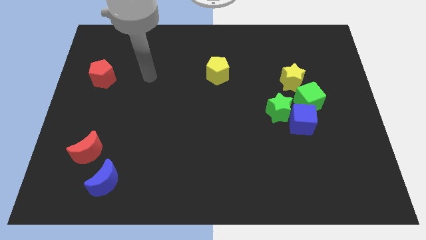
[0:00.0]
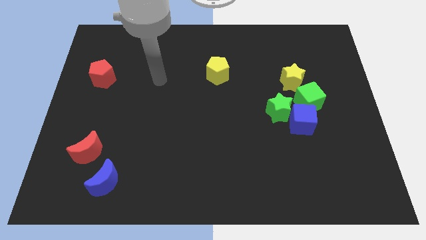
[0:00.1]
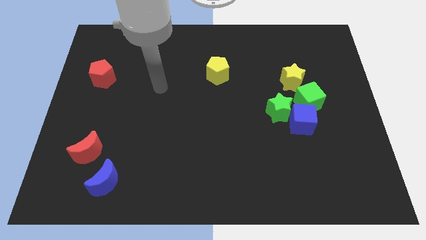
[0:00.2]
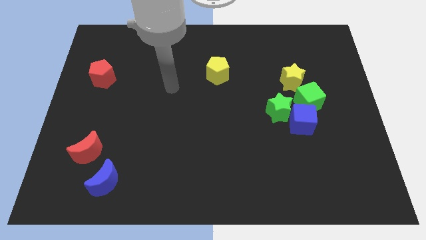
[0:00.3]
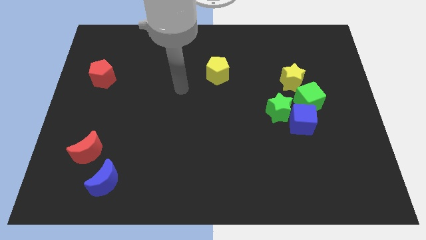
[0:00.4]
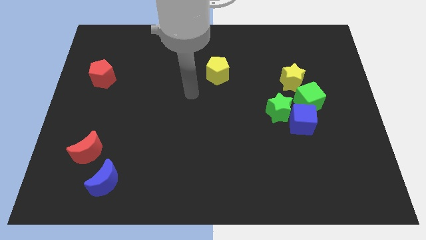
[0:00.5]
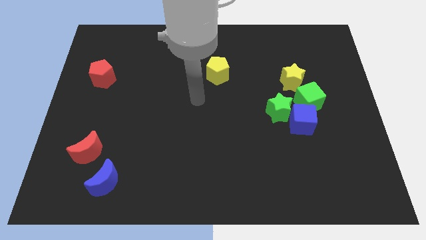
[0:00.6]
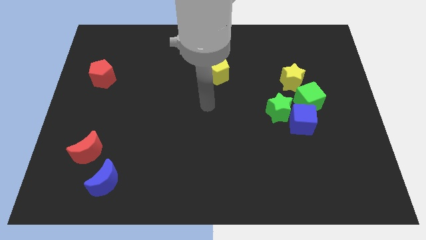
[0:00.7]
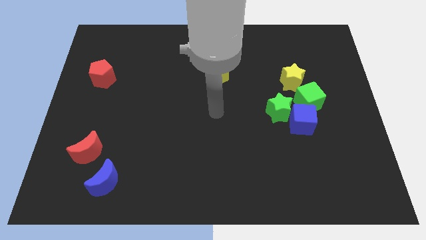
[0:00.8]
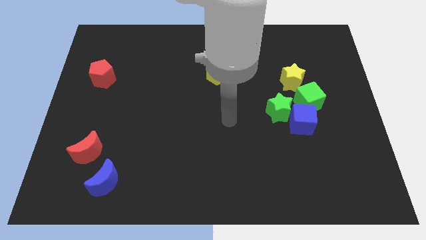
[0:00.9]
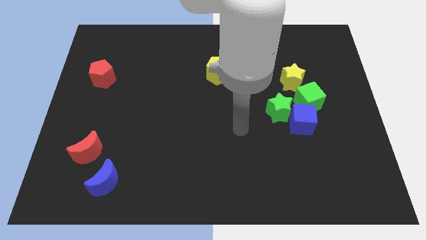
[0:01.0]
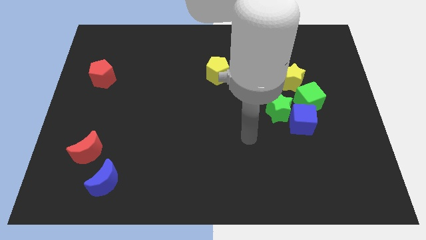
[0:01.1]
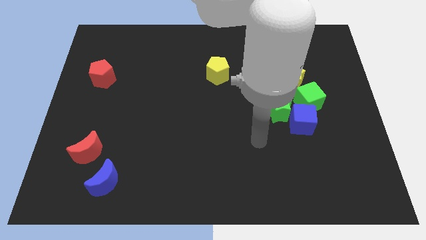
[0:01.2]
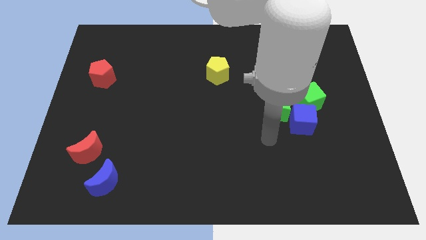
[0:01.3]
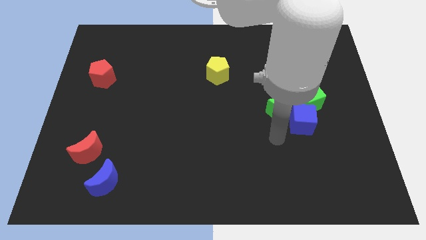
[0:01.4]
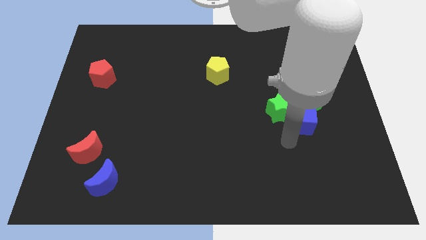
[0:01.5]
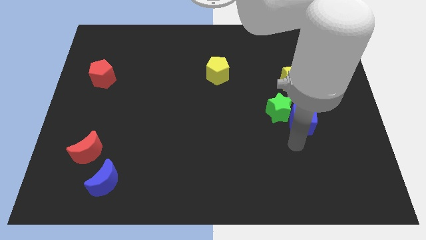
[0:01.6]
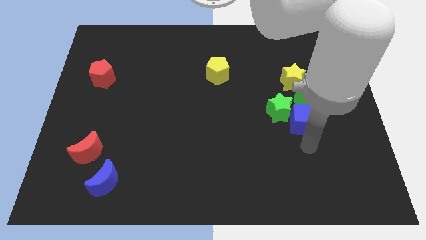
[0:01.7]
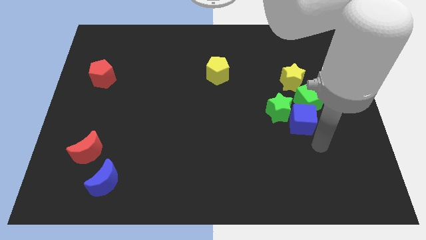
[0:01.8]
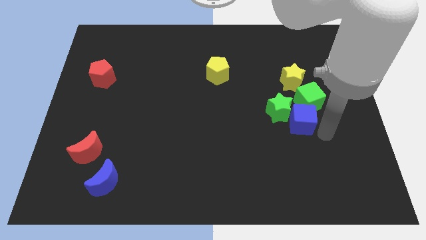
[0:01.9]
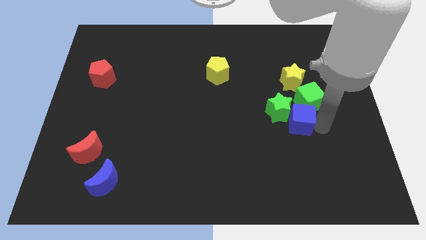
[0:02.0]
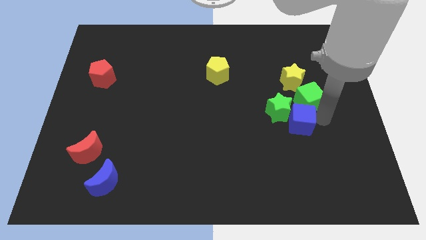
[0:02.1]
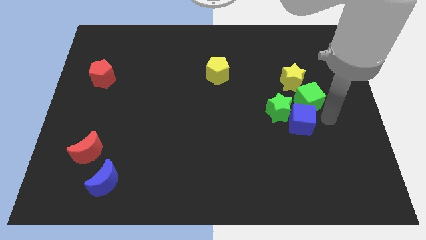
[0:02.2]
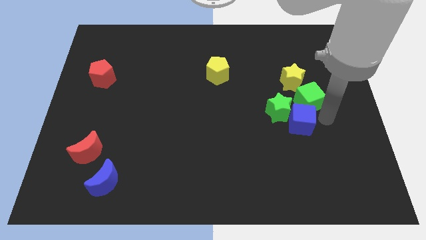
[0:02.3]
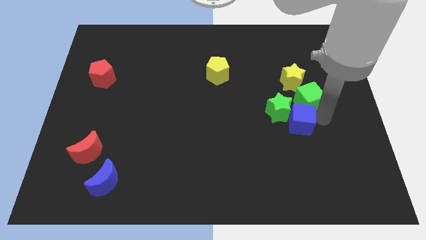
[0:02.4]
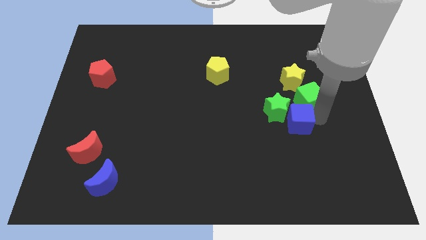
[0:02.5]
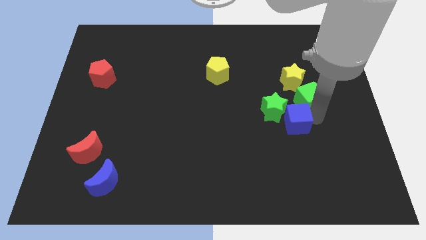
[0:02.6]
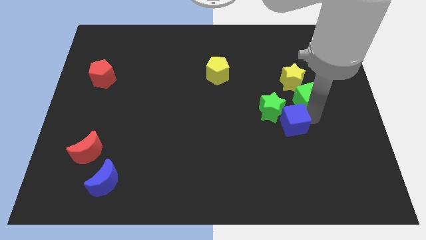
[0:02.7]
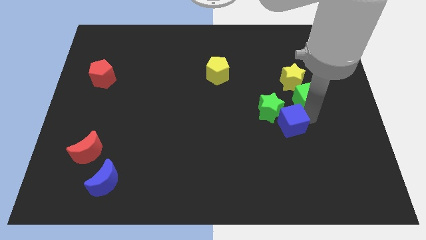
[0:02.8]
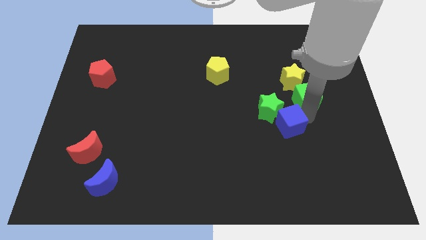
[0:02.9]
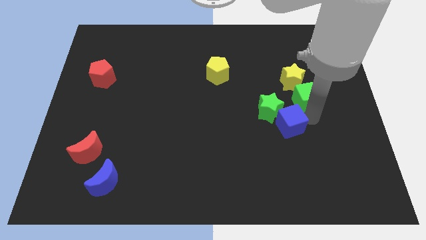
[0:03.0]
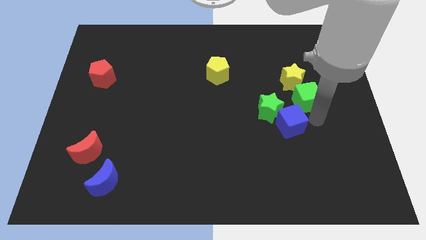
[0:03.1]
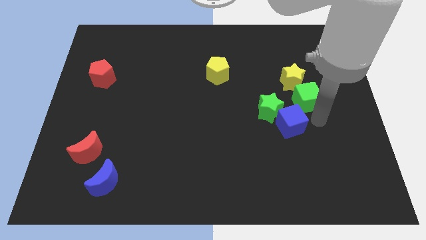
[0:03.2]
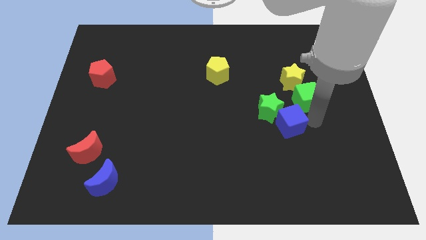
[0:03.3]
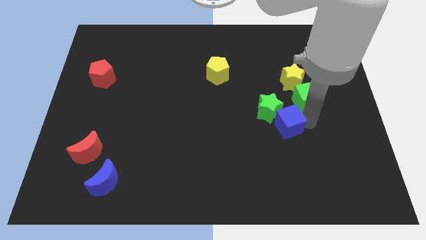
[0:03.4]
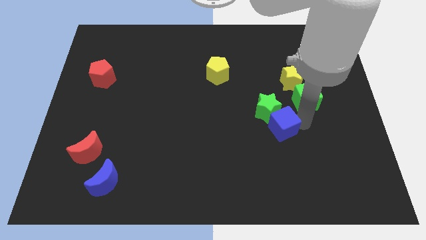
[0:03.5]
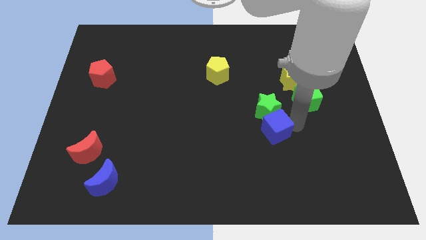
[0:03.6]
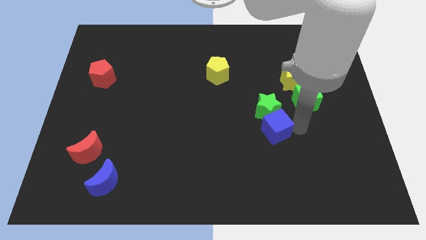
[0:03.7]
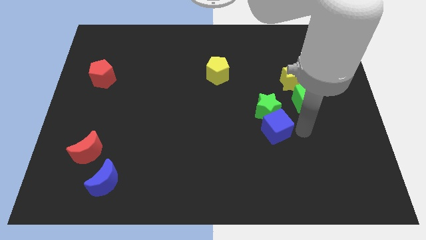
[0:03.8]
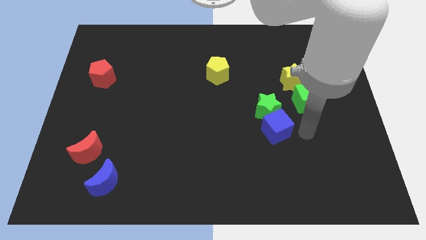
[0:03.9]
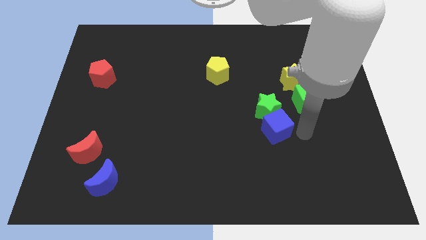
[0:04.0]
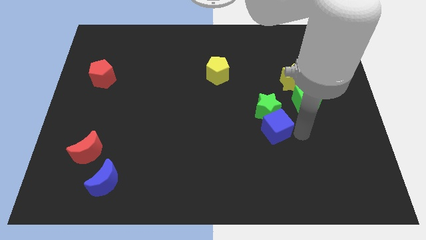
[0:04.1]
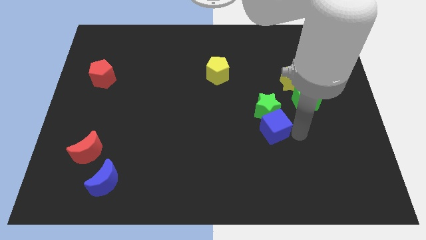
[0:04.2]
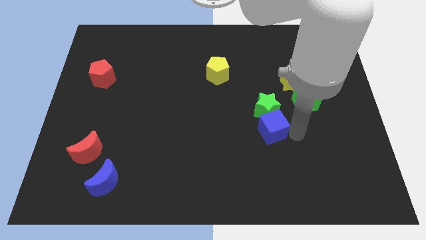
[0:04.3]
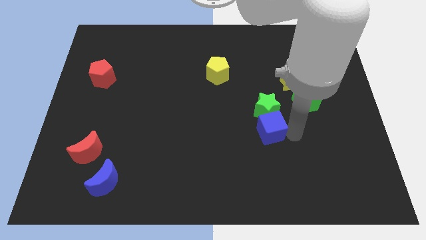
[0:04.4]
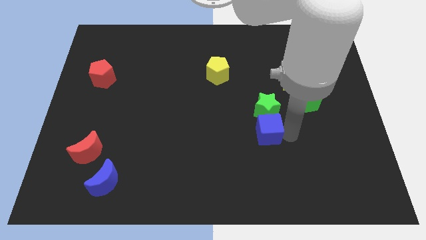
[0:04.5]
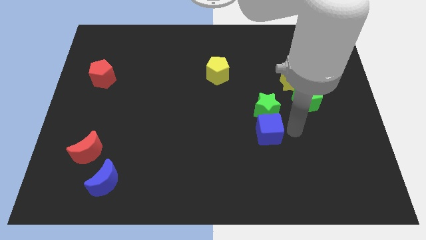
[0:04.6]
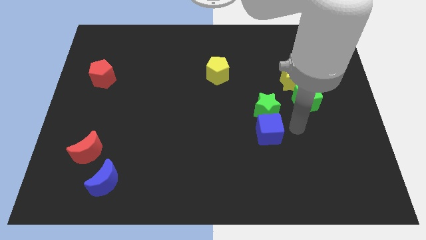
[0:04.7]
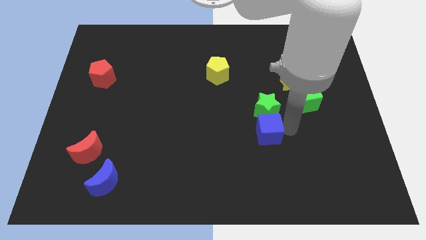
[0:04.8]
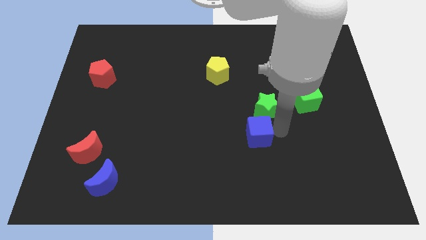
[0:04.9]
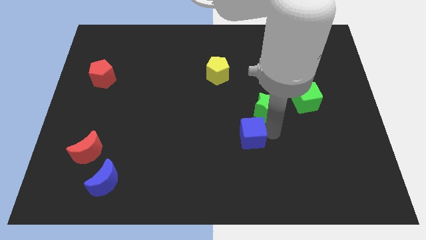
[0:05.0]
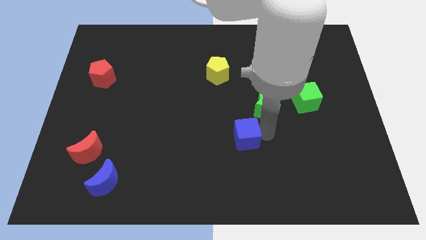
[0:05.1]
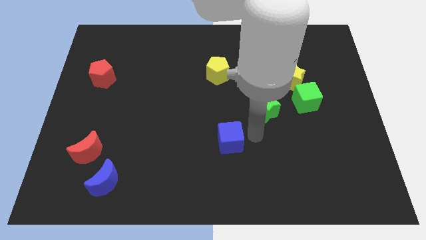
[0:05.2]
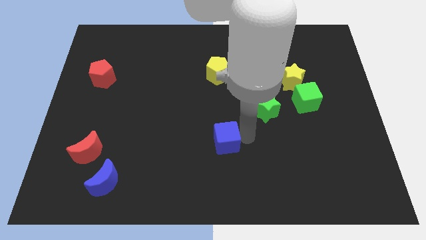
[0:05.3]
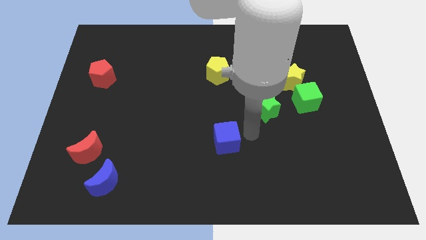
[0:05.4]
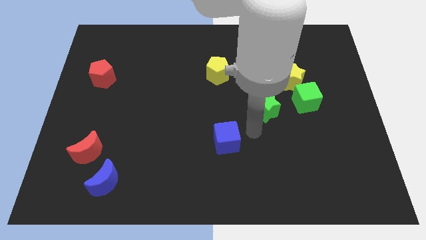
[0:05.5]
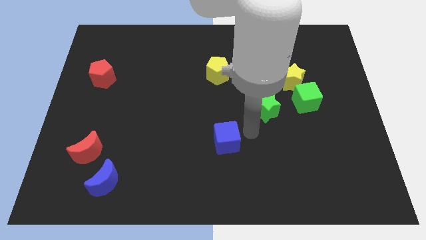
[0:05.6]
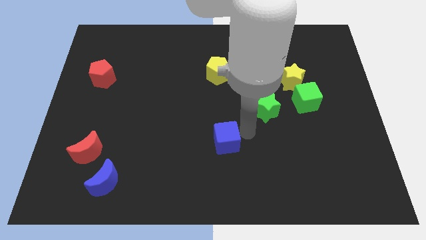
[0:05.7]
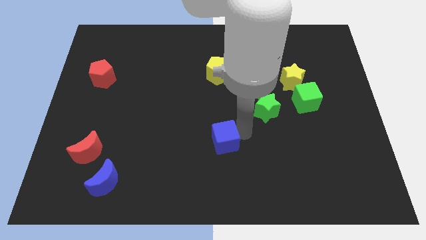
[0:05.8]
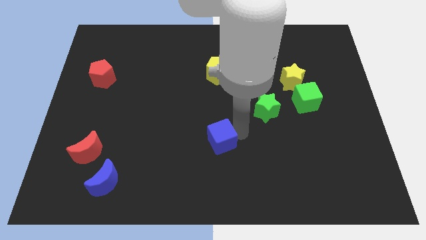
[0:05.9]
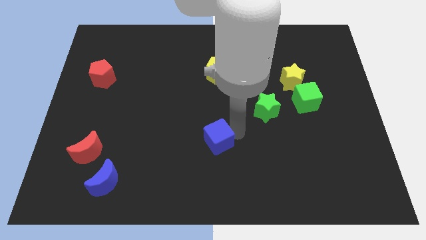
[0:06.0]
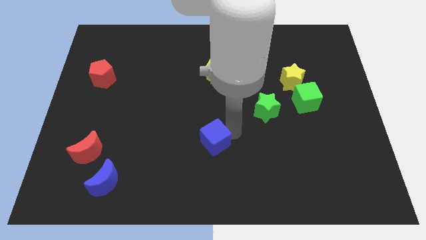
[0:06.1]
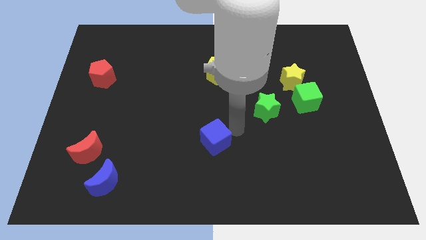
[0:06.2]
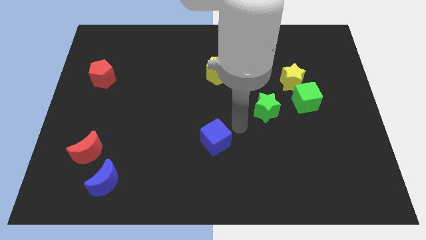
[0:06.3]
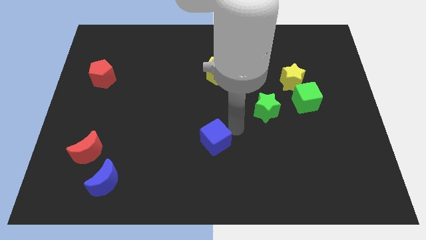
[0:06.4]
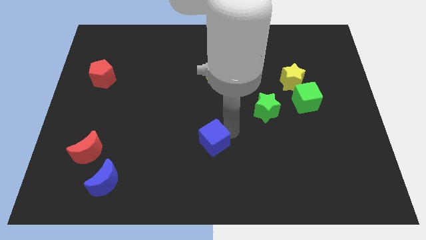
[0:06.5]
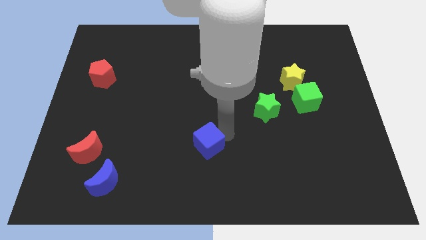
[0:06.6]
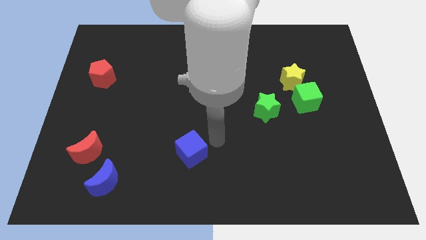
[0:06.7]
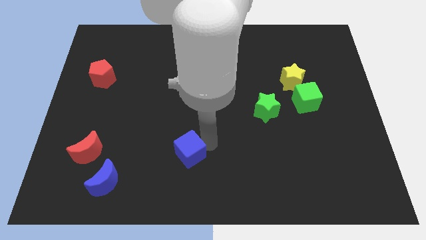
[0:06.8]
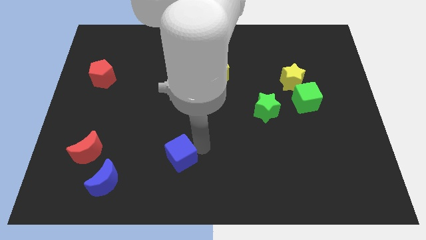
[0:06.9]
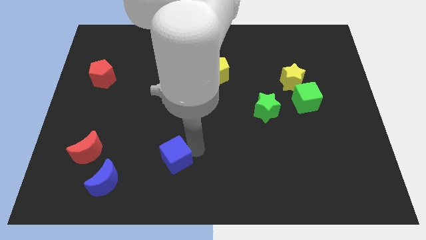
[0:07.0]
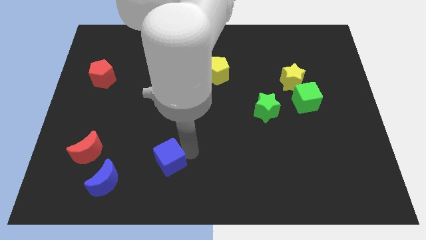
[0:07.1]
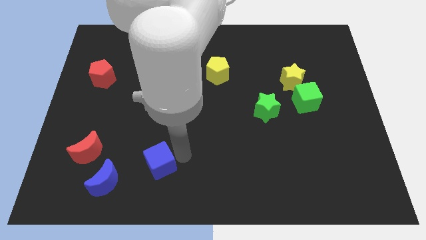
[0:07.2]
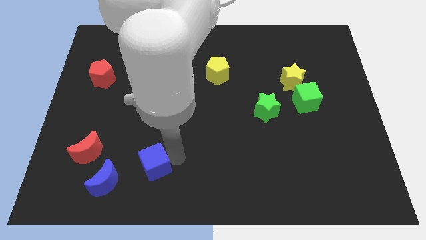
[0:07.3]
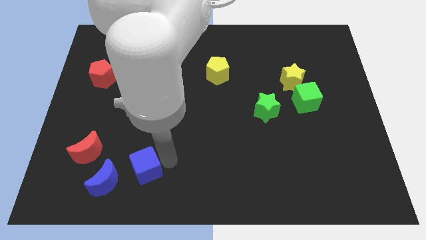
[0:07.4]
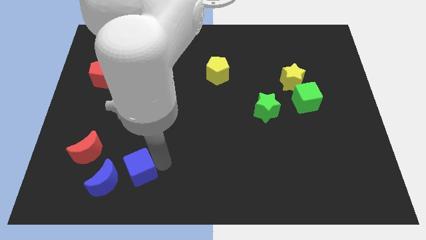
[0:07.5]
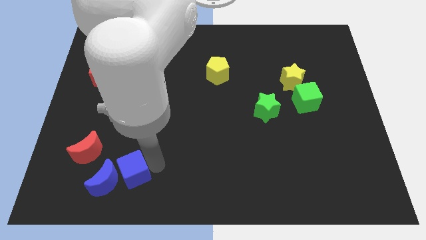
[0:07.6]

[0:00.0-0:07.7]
push the blue cube to the blue moon
